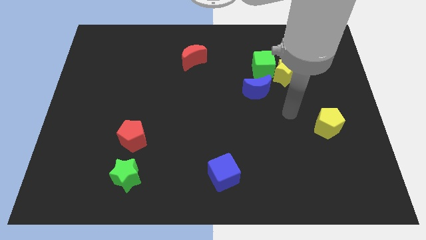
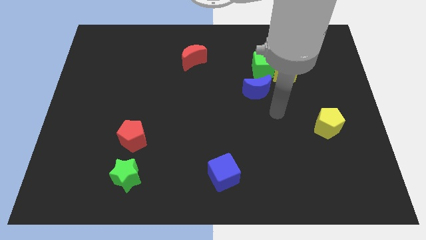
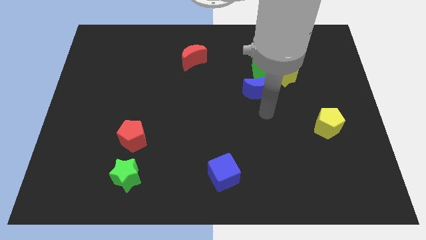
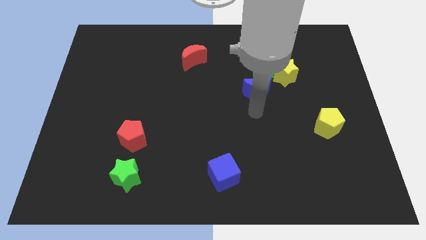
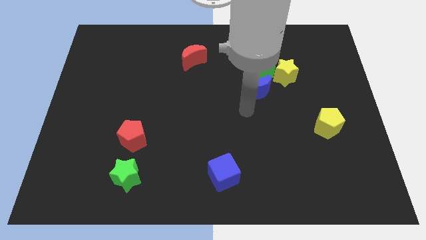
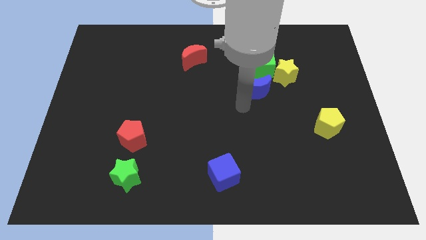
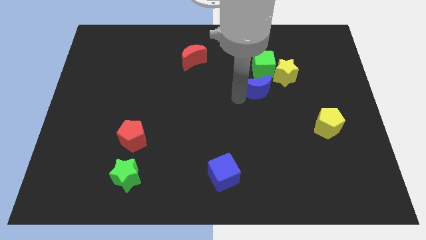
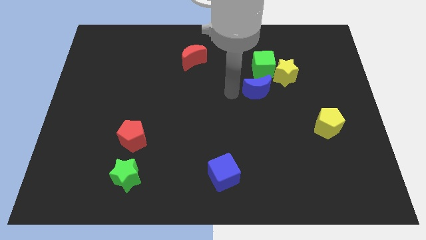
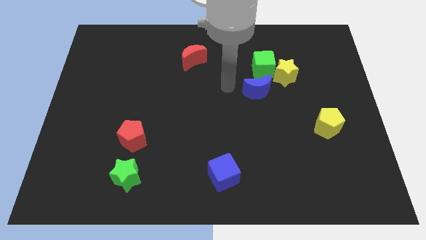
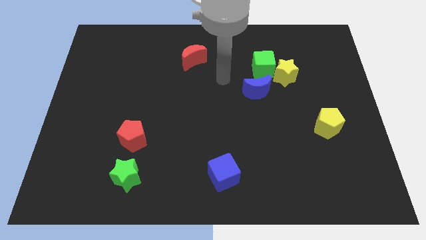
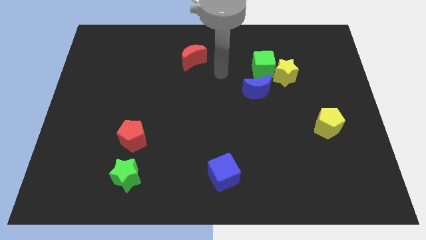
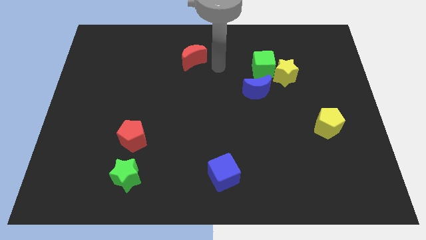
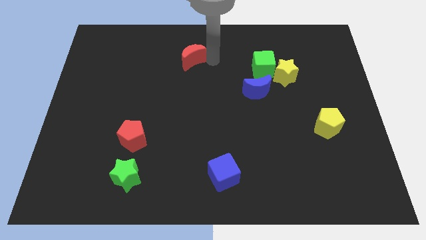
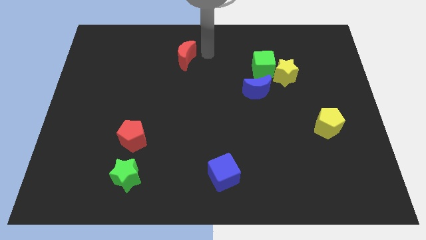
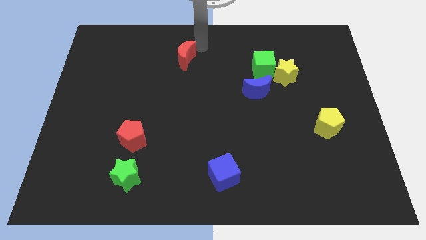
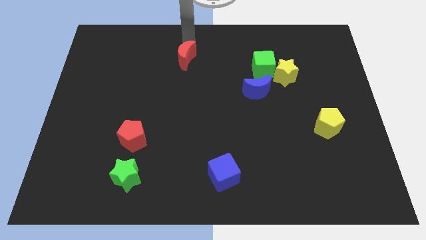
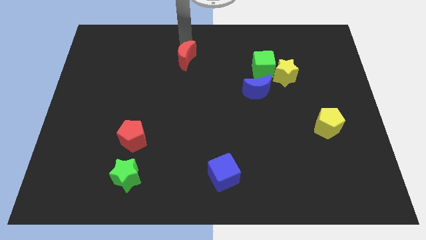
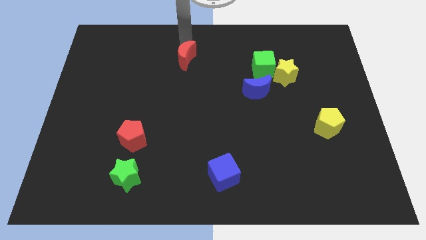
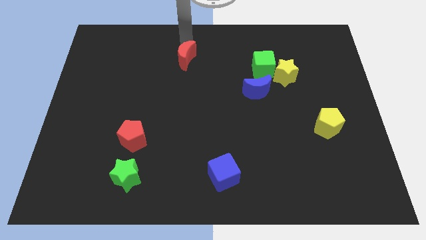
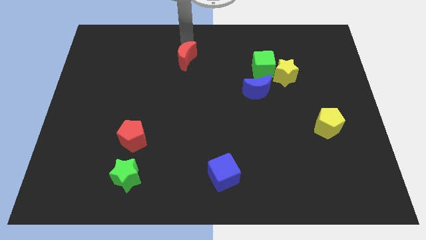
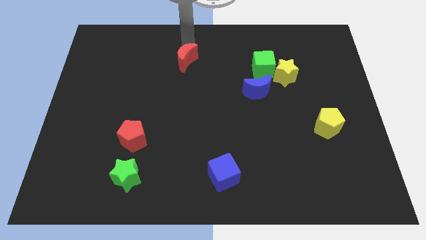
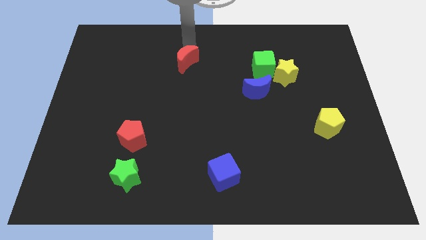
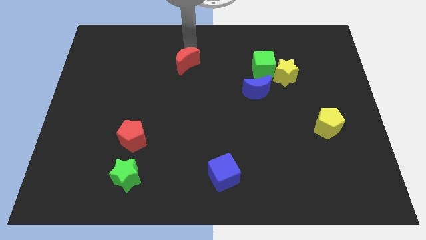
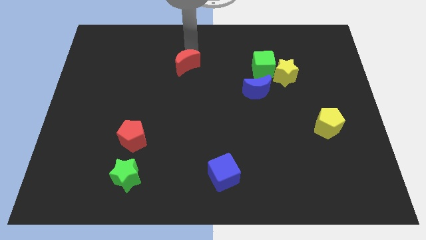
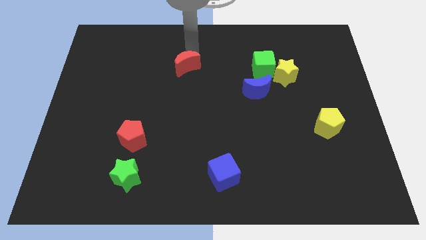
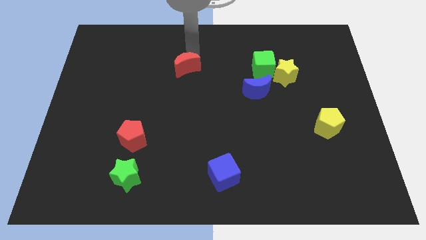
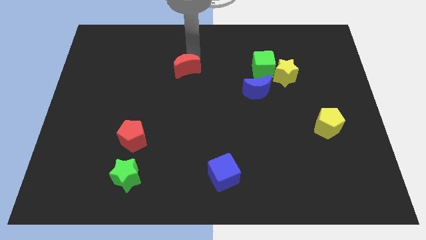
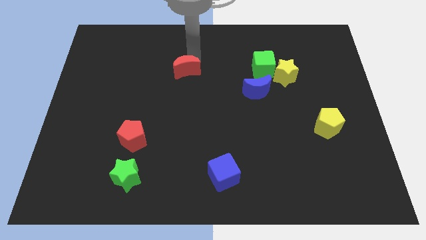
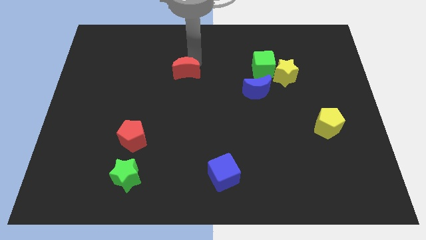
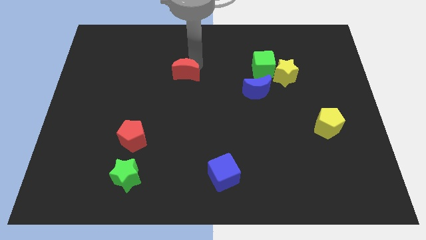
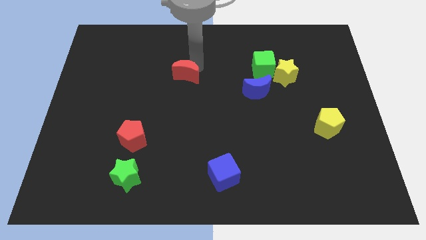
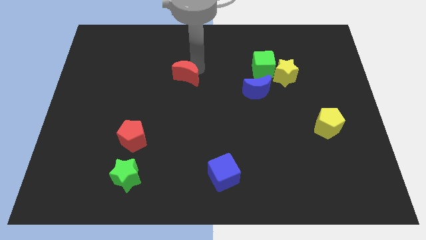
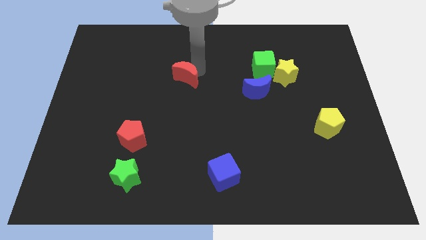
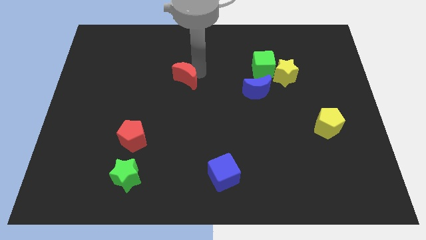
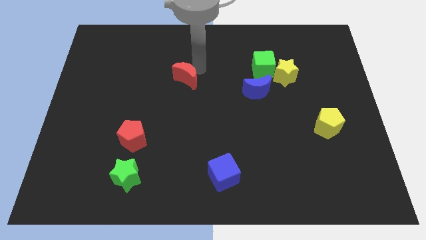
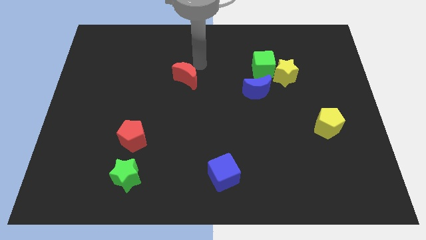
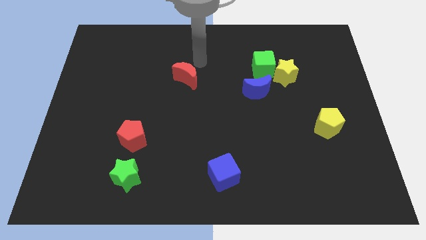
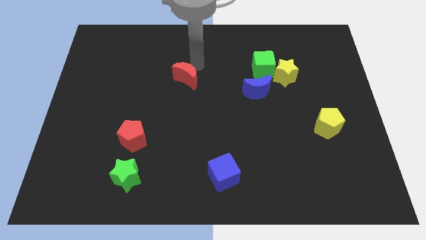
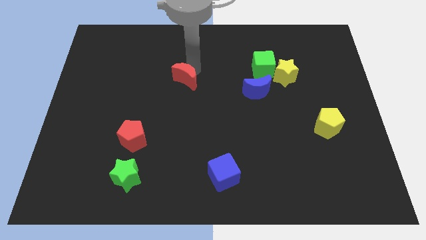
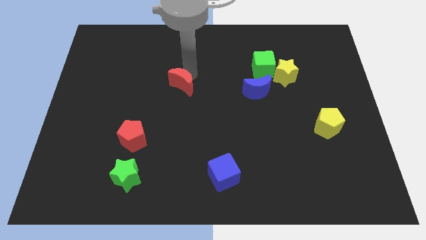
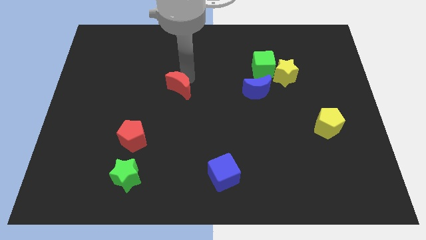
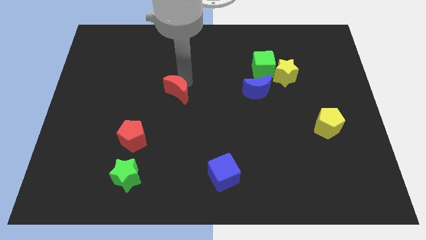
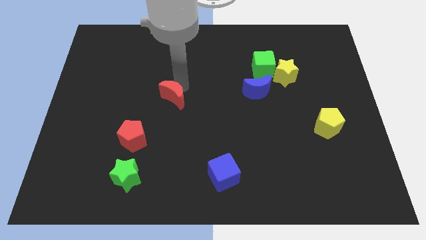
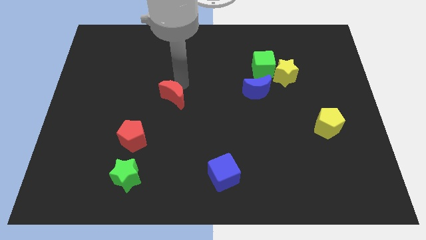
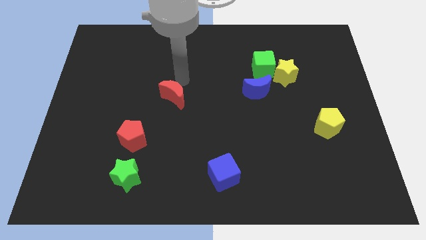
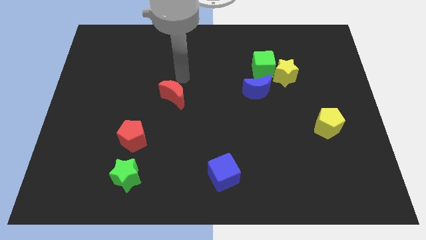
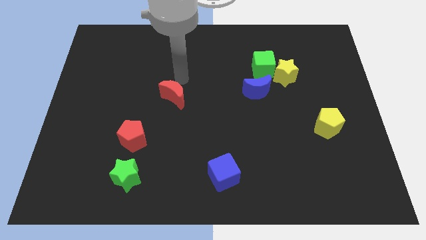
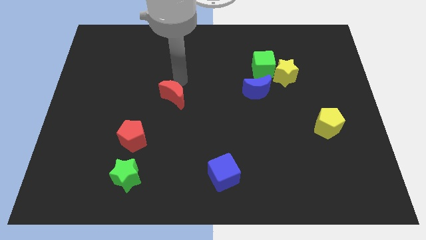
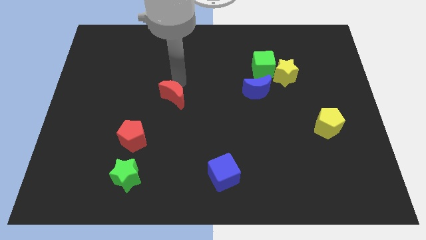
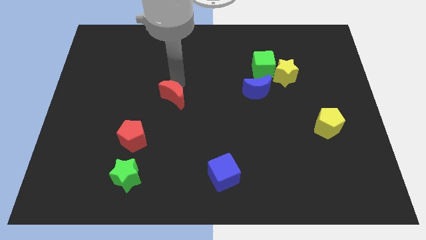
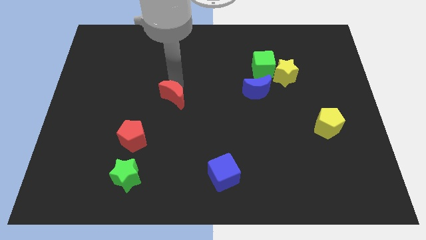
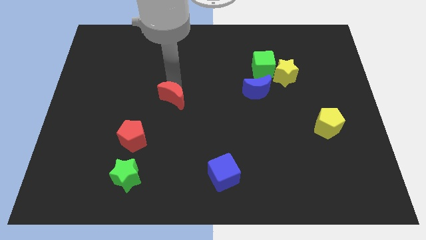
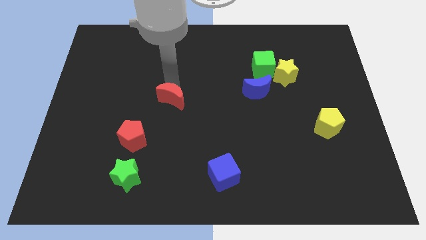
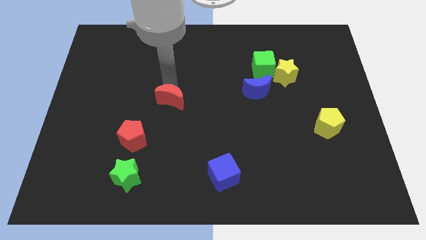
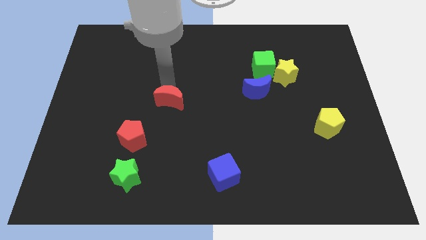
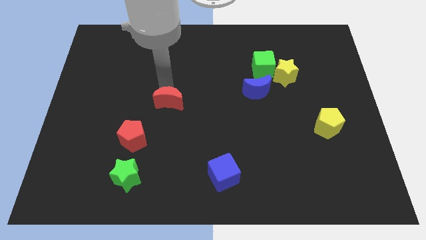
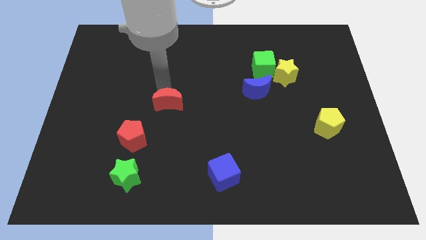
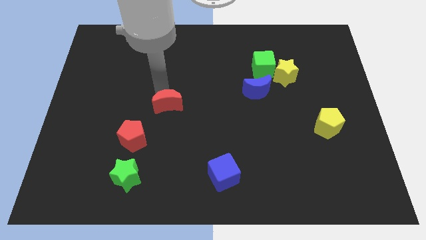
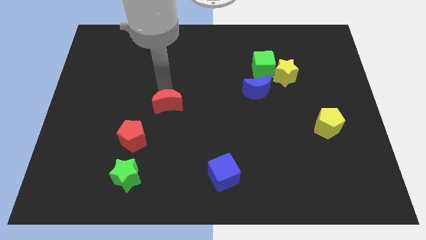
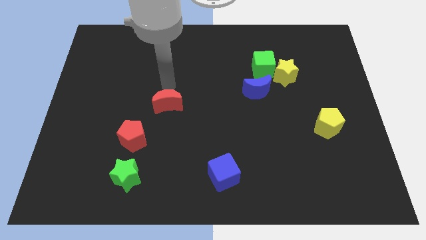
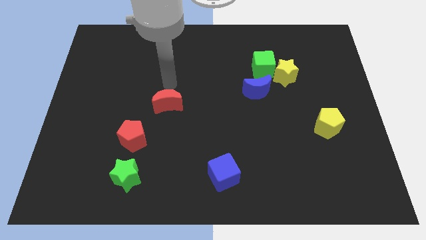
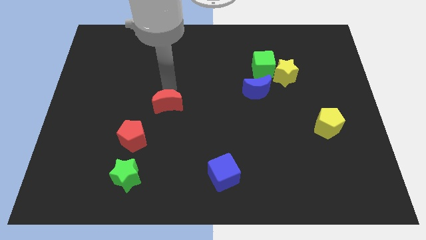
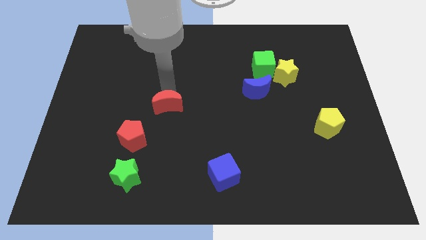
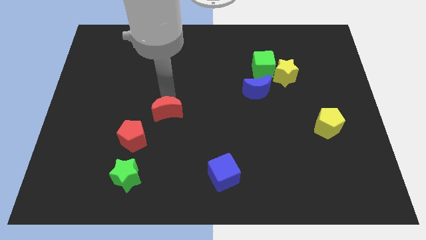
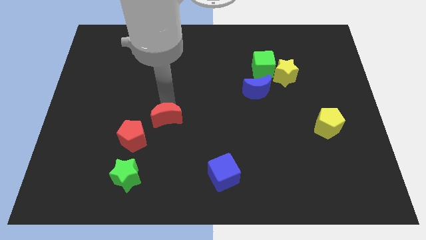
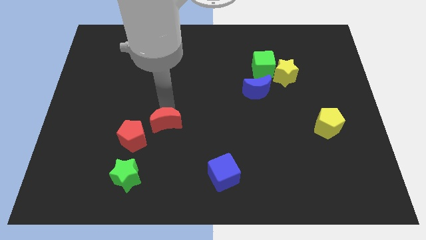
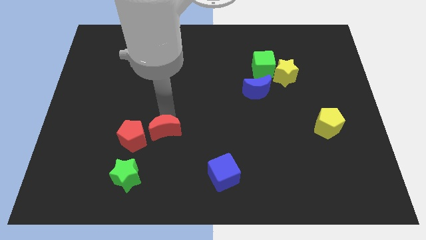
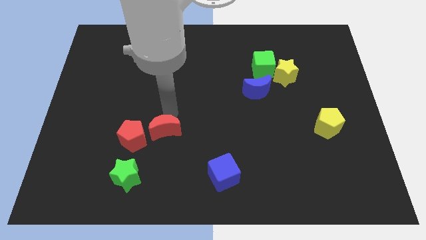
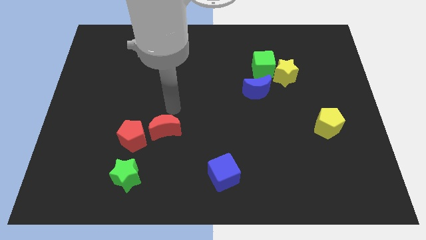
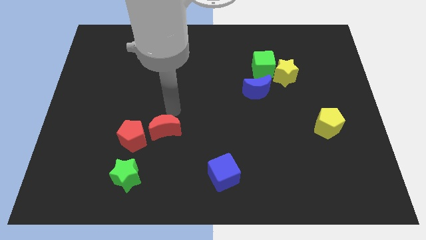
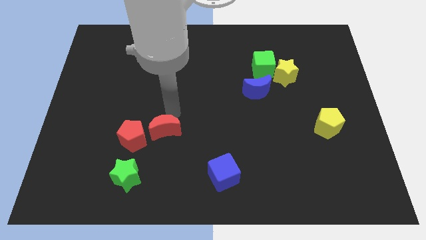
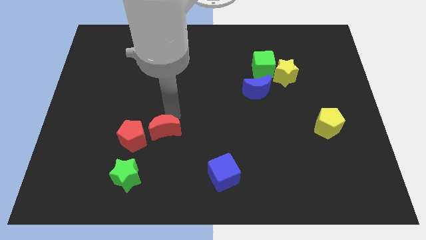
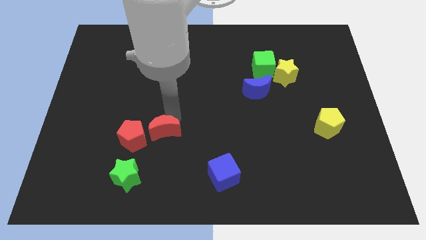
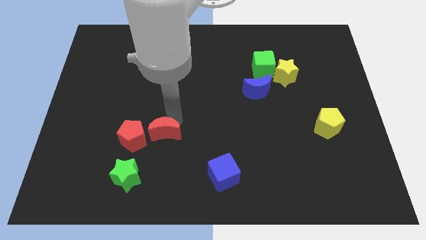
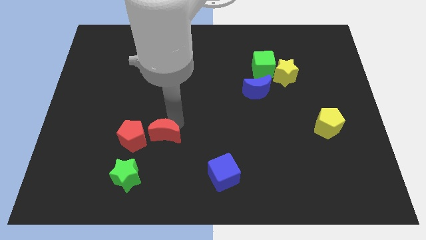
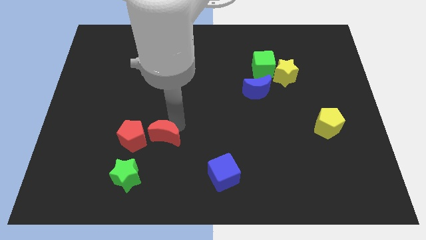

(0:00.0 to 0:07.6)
push the red moon to the top right of the green star
